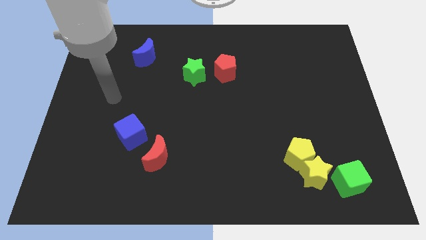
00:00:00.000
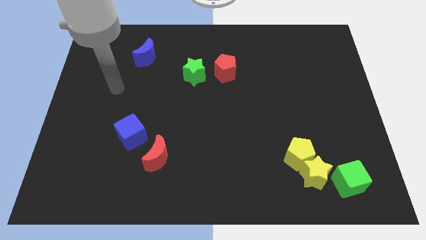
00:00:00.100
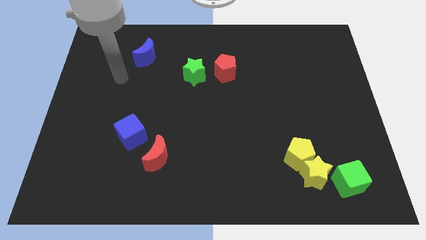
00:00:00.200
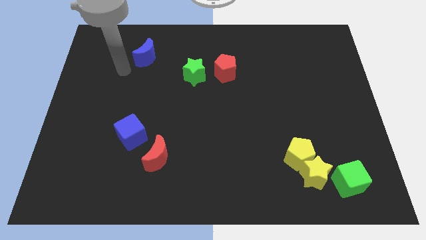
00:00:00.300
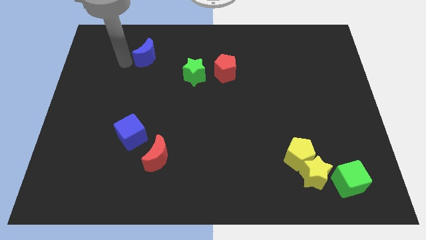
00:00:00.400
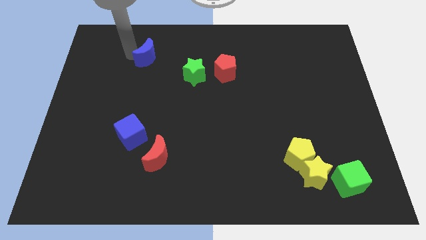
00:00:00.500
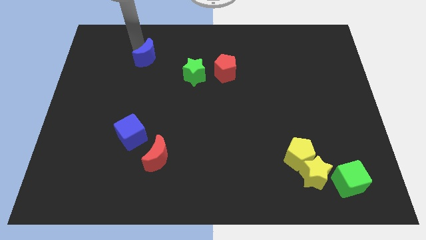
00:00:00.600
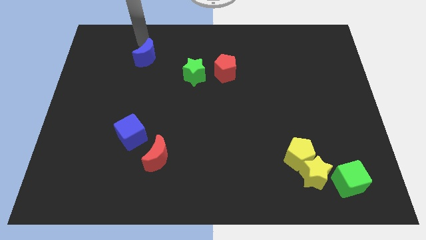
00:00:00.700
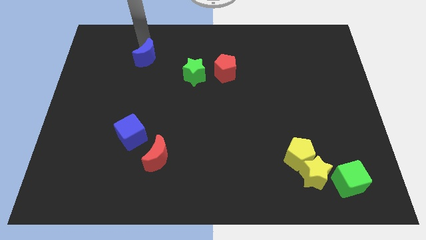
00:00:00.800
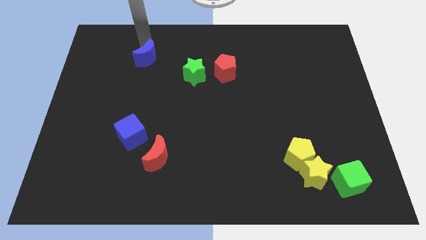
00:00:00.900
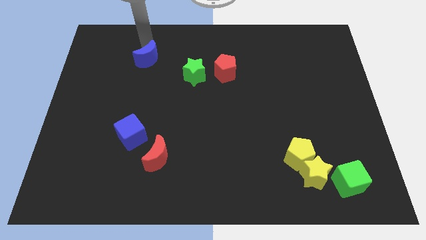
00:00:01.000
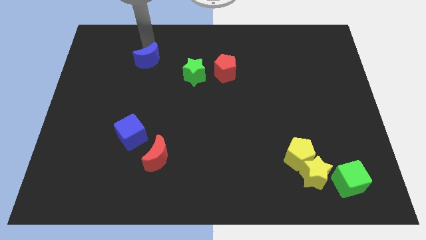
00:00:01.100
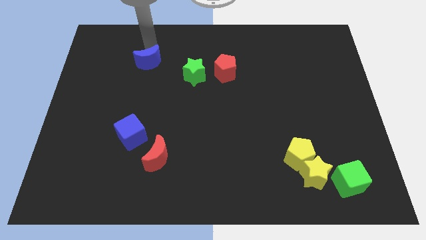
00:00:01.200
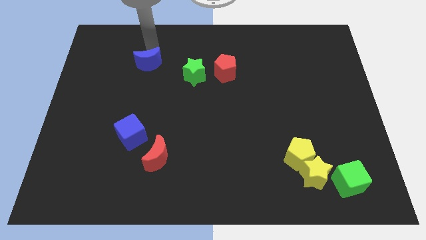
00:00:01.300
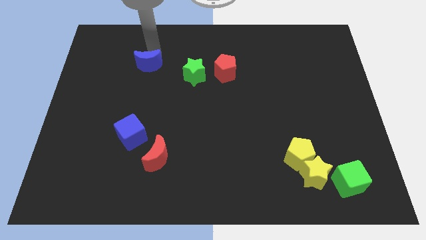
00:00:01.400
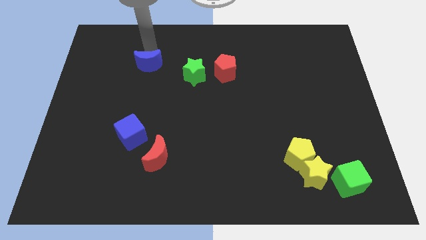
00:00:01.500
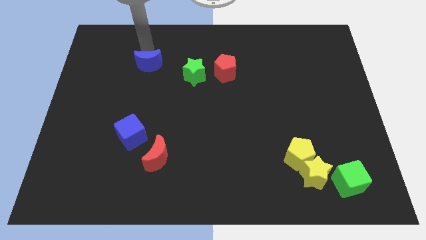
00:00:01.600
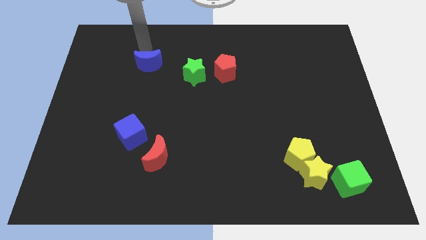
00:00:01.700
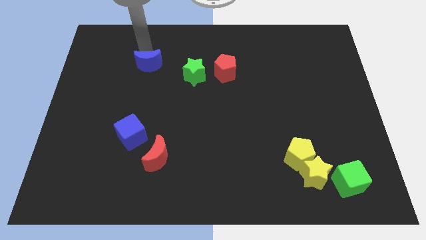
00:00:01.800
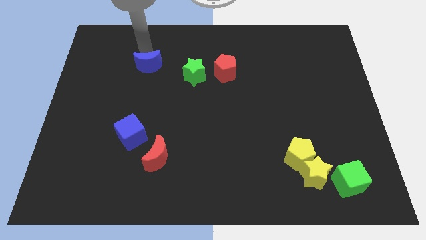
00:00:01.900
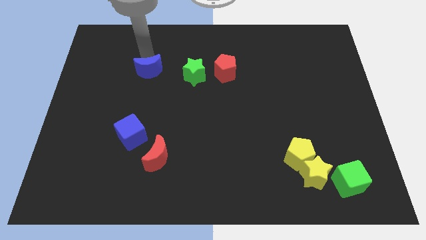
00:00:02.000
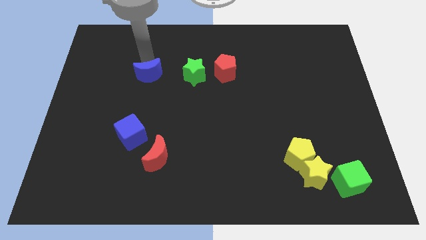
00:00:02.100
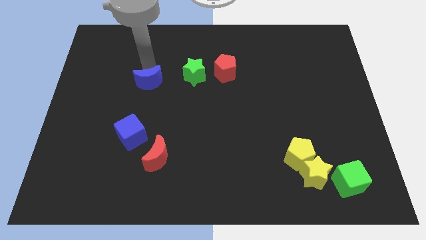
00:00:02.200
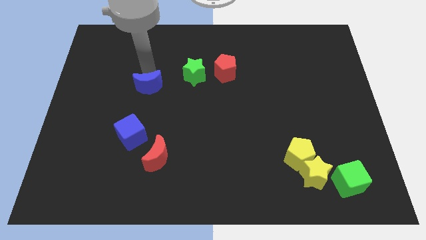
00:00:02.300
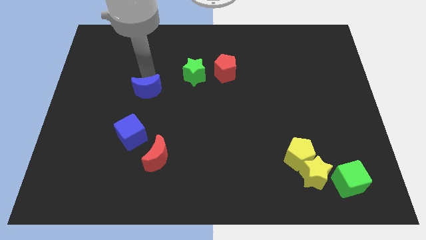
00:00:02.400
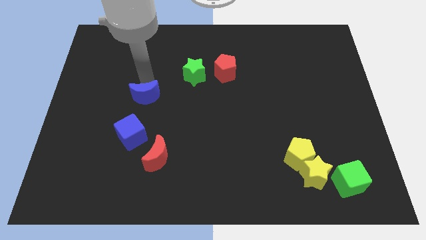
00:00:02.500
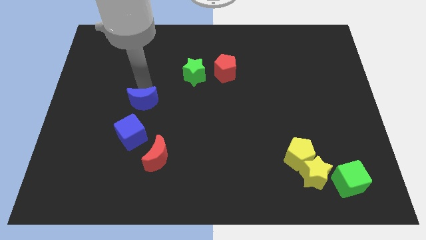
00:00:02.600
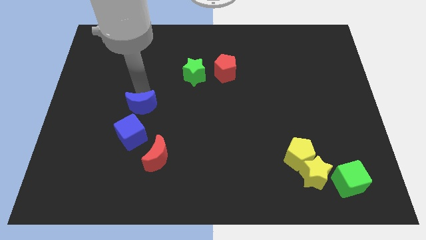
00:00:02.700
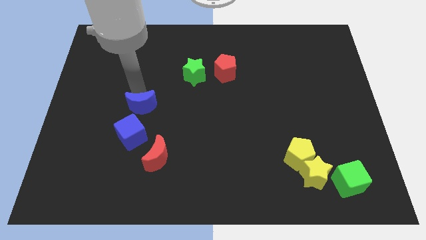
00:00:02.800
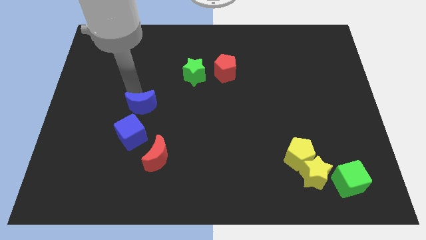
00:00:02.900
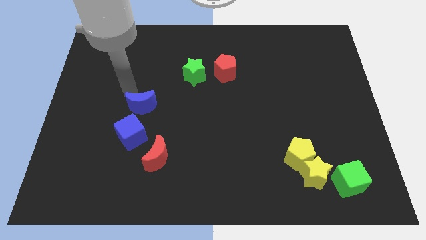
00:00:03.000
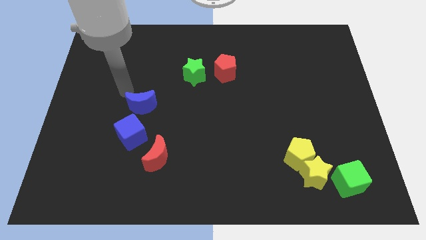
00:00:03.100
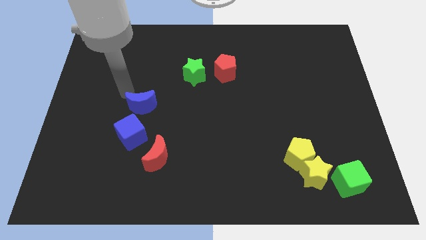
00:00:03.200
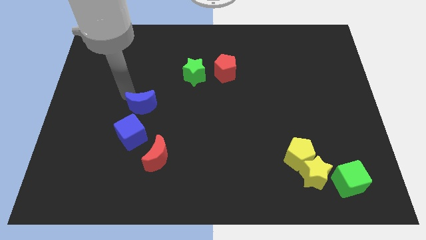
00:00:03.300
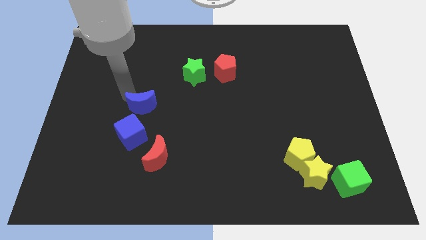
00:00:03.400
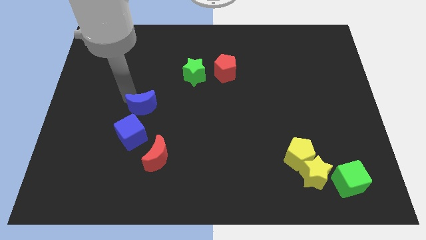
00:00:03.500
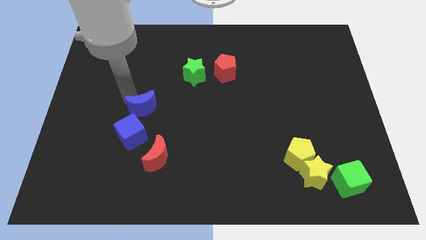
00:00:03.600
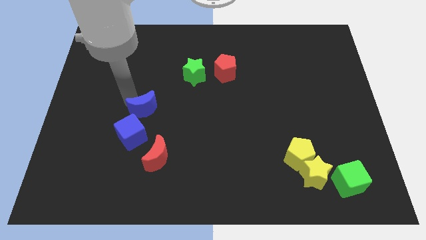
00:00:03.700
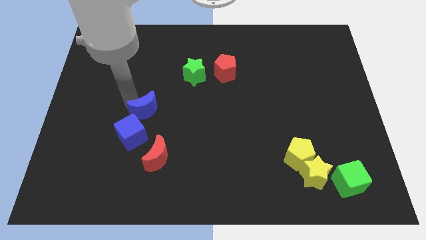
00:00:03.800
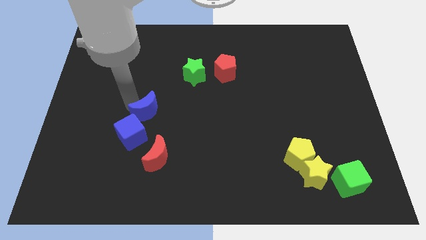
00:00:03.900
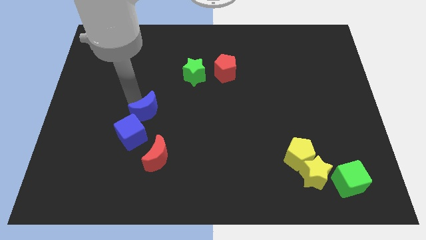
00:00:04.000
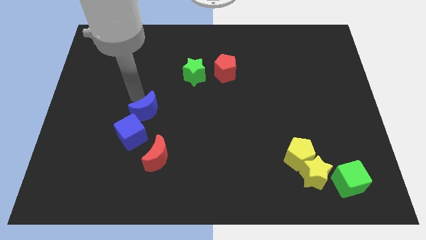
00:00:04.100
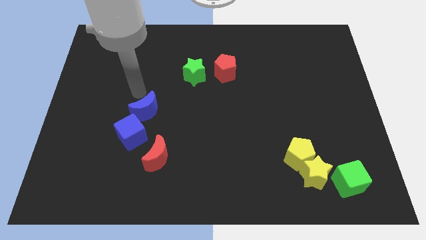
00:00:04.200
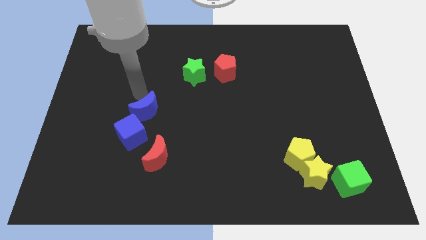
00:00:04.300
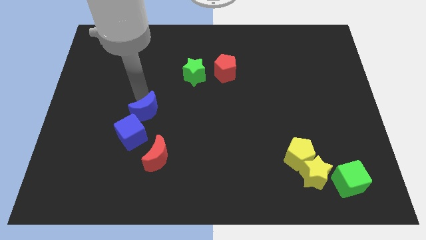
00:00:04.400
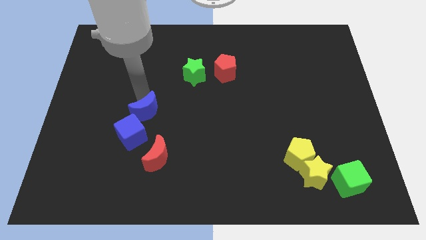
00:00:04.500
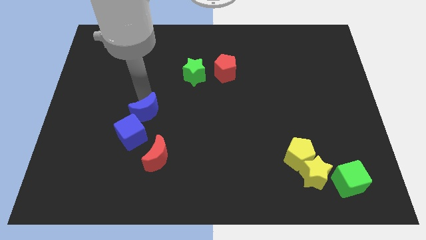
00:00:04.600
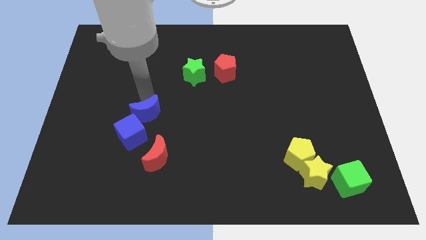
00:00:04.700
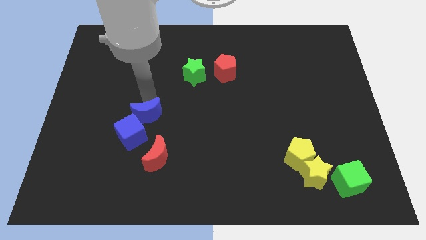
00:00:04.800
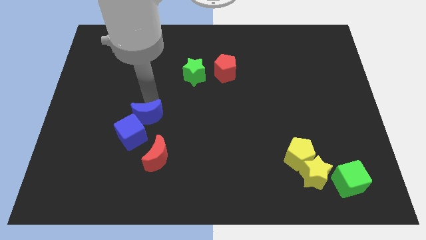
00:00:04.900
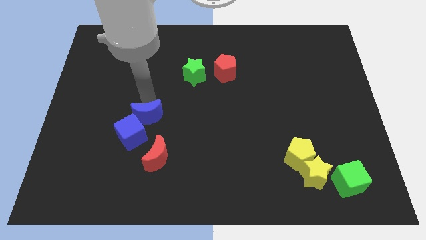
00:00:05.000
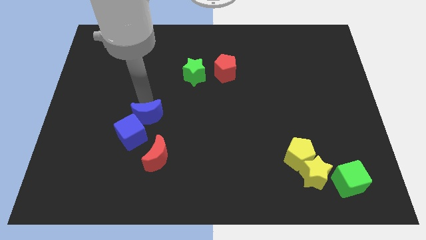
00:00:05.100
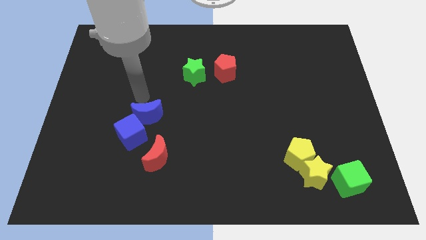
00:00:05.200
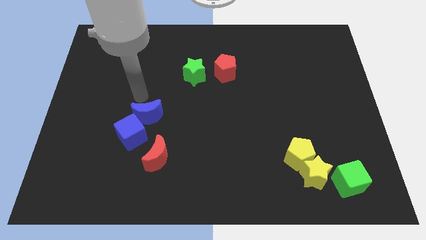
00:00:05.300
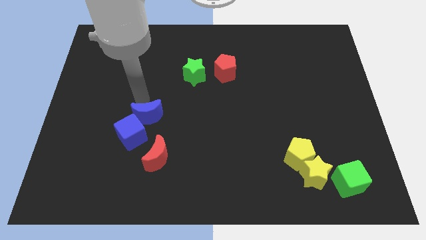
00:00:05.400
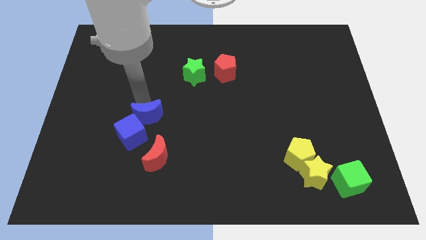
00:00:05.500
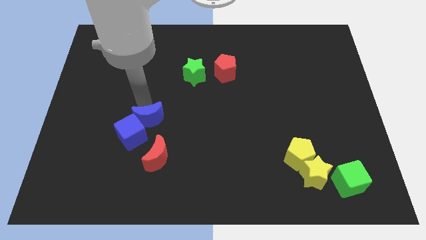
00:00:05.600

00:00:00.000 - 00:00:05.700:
slide the blue moon downwards

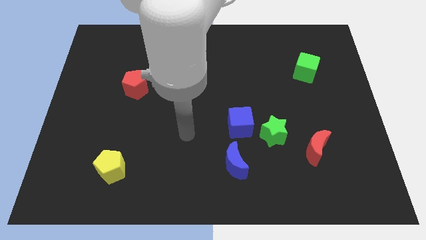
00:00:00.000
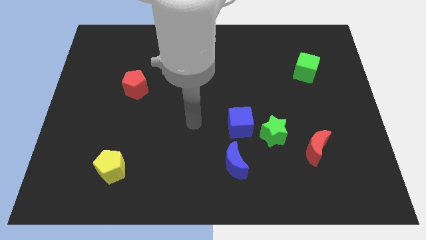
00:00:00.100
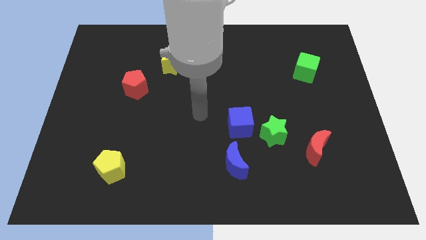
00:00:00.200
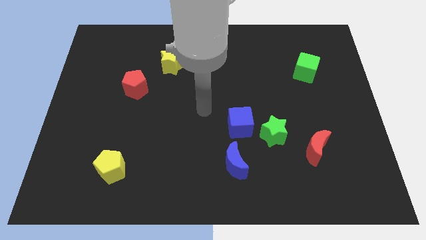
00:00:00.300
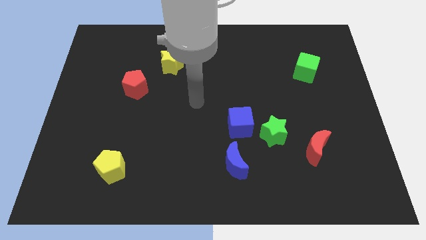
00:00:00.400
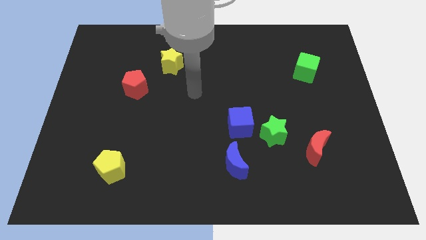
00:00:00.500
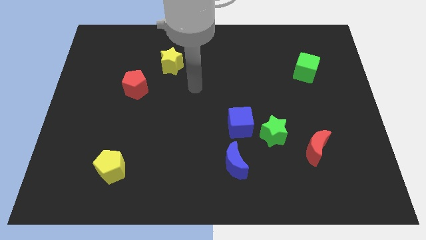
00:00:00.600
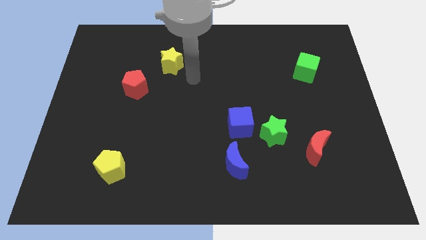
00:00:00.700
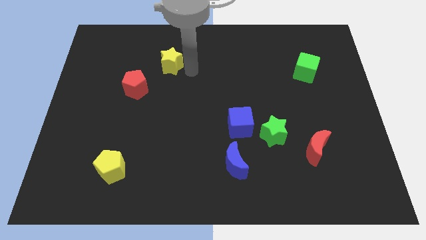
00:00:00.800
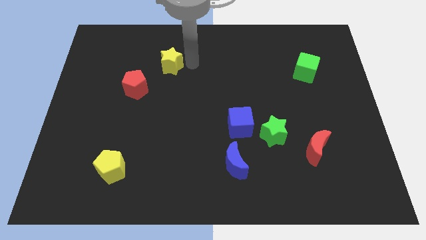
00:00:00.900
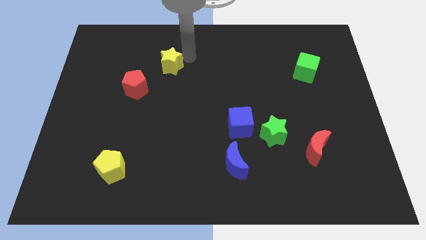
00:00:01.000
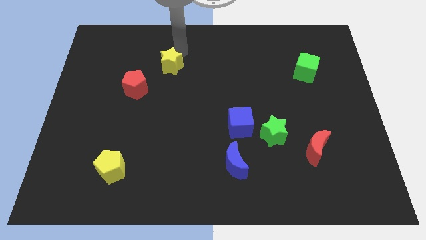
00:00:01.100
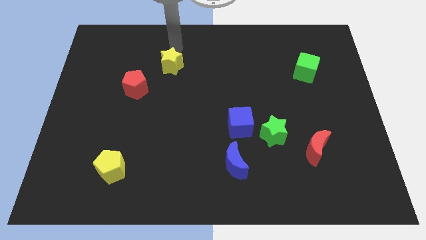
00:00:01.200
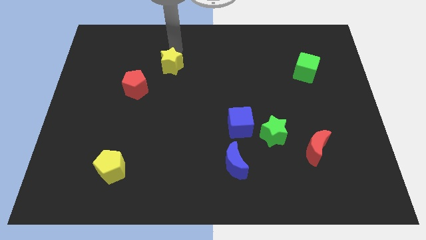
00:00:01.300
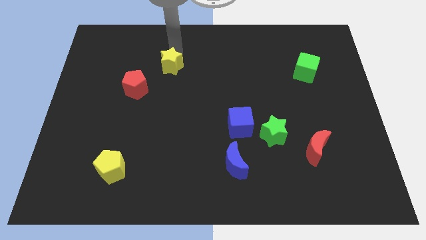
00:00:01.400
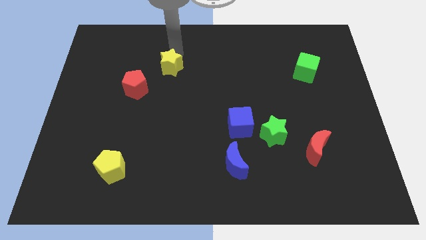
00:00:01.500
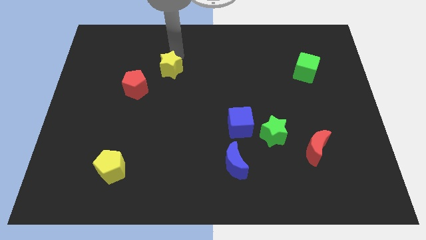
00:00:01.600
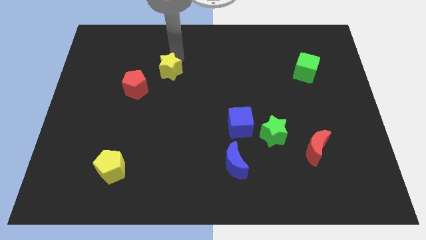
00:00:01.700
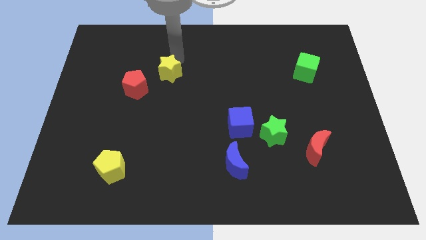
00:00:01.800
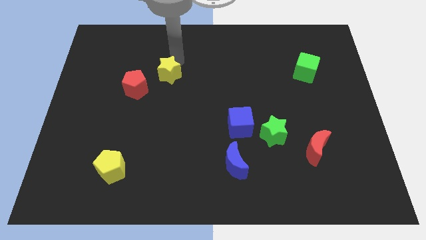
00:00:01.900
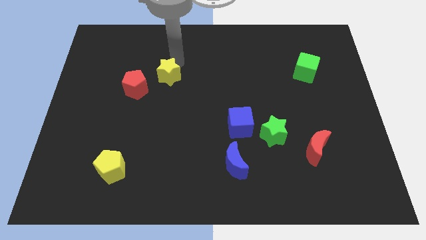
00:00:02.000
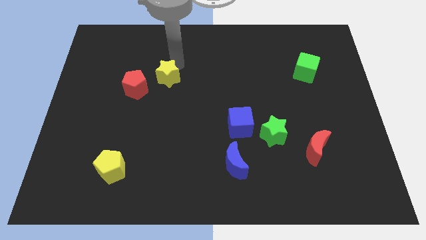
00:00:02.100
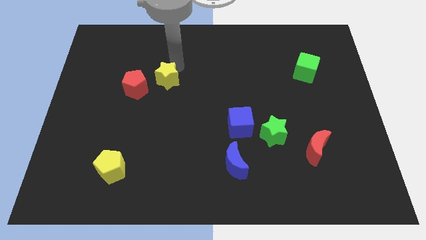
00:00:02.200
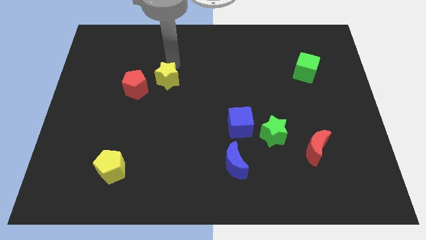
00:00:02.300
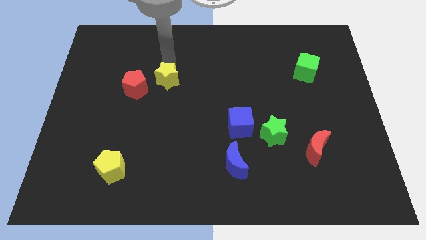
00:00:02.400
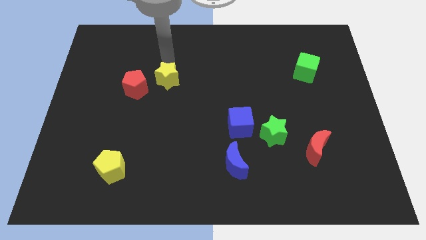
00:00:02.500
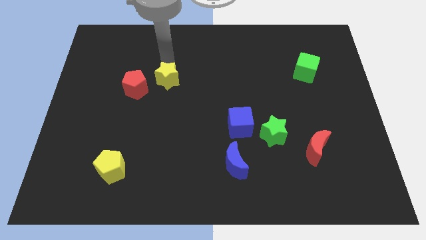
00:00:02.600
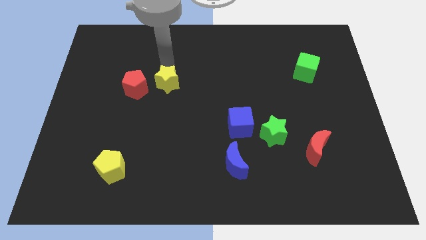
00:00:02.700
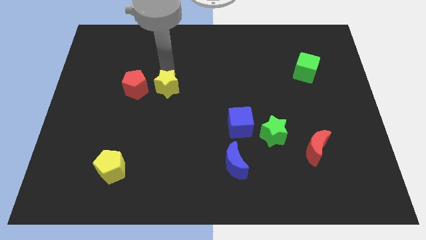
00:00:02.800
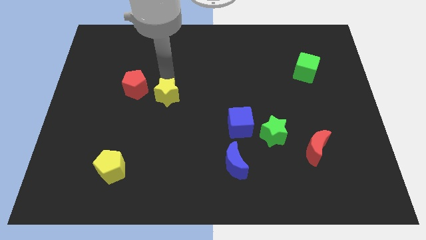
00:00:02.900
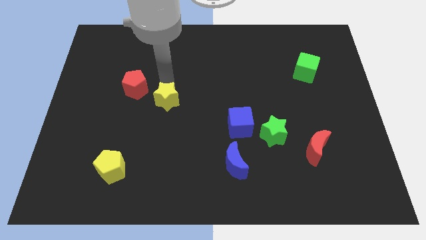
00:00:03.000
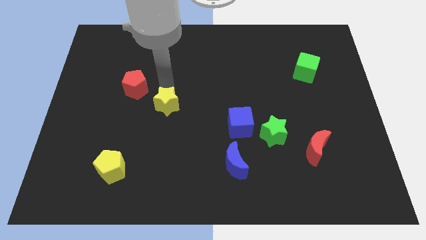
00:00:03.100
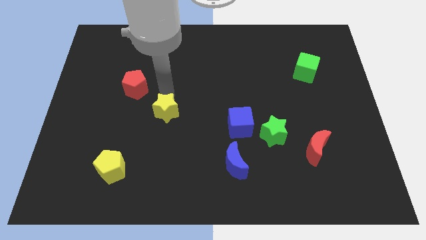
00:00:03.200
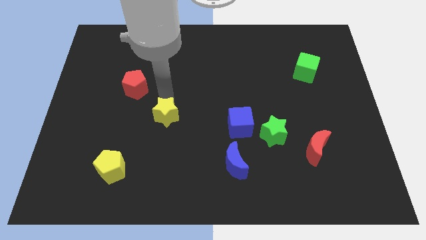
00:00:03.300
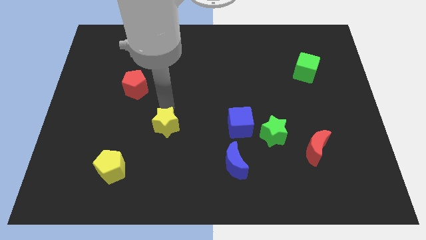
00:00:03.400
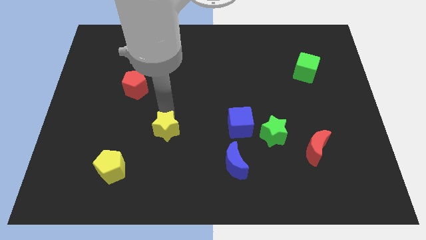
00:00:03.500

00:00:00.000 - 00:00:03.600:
move the yellow star downwards
